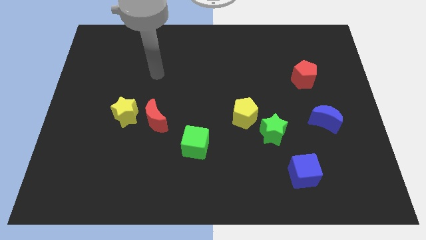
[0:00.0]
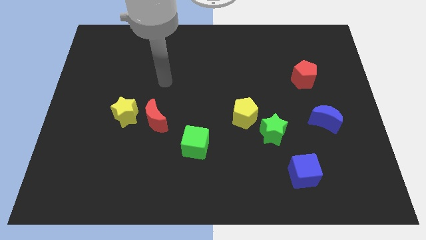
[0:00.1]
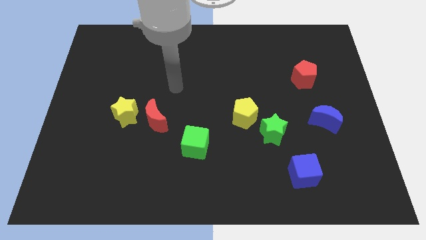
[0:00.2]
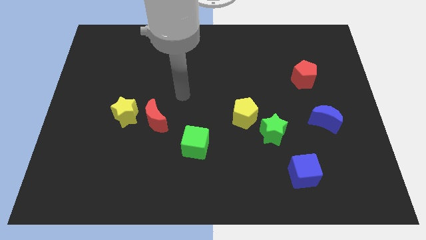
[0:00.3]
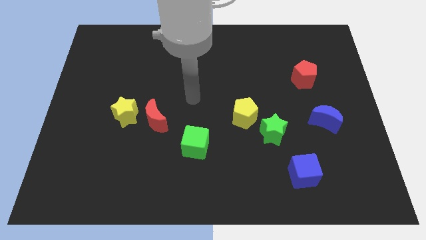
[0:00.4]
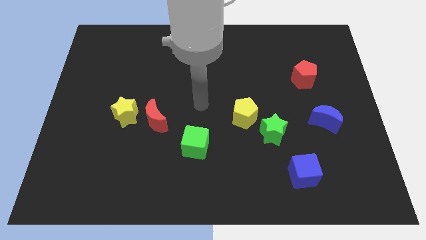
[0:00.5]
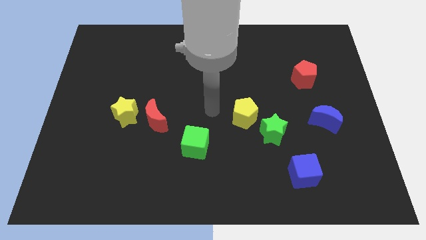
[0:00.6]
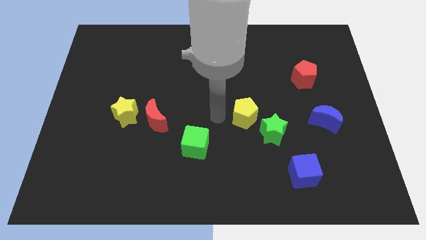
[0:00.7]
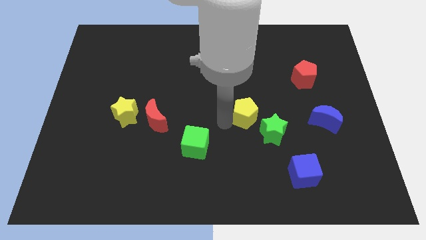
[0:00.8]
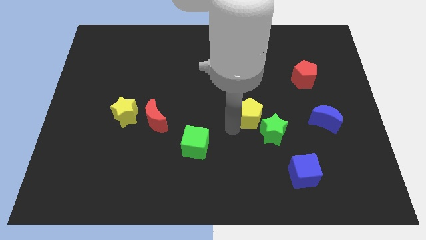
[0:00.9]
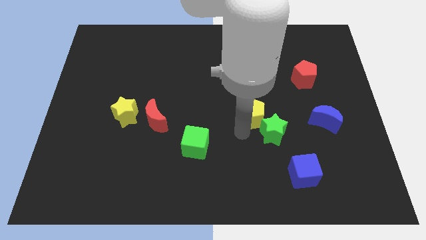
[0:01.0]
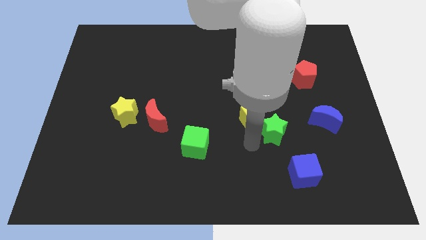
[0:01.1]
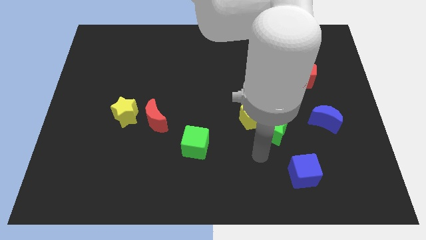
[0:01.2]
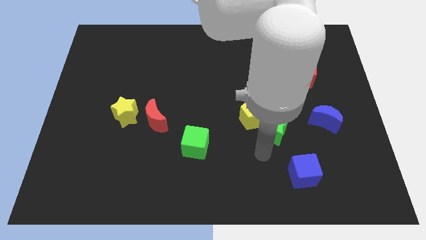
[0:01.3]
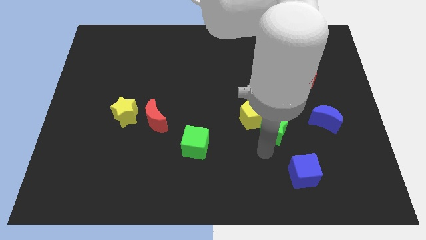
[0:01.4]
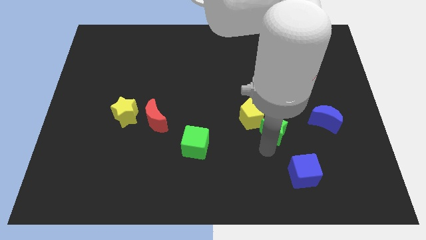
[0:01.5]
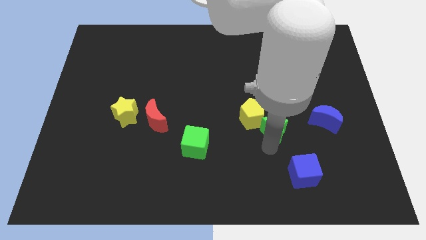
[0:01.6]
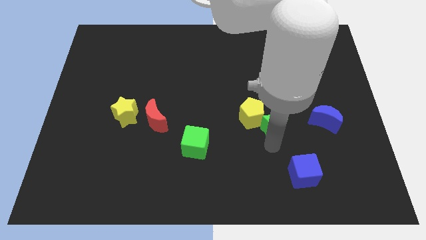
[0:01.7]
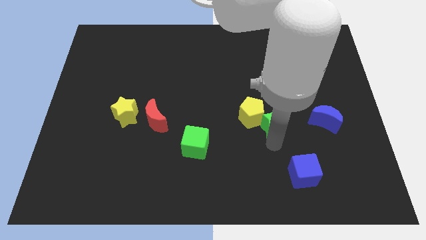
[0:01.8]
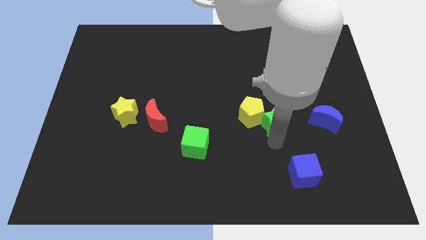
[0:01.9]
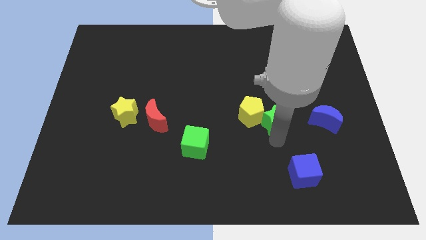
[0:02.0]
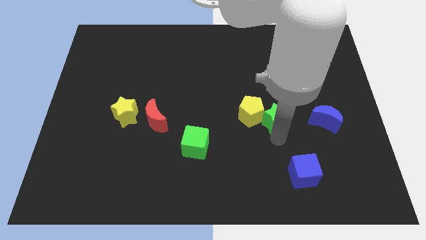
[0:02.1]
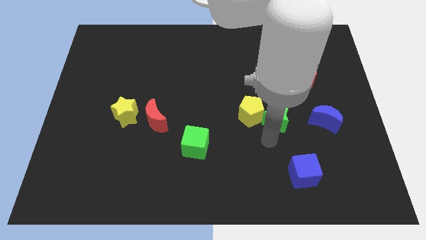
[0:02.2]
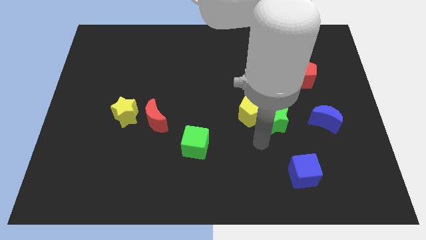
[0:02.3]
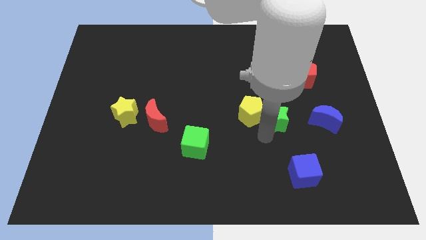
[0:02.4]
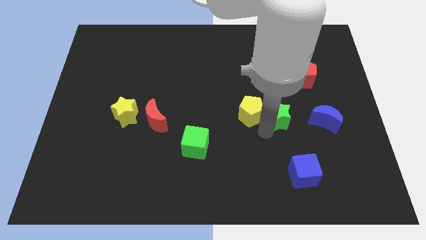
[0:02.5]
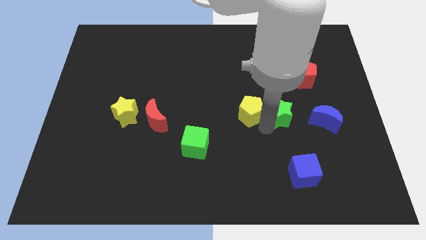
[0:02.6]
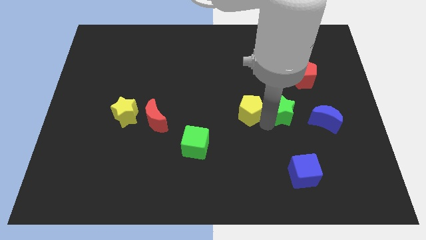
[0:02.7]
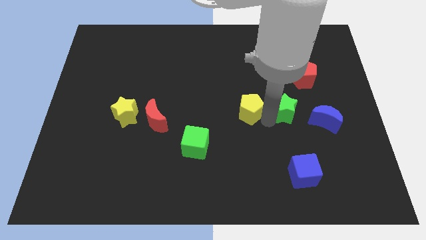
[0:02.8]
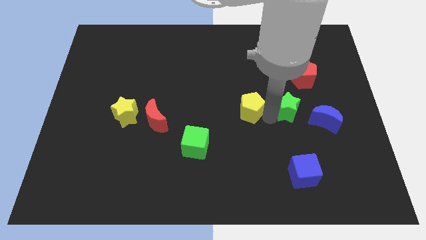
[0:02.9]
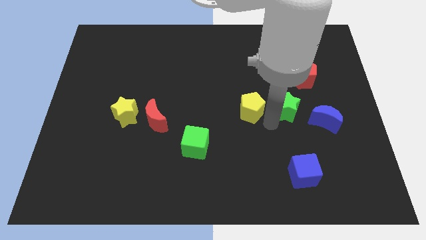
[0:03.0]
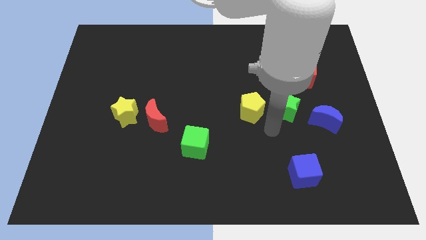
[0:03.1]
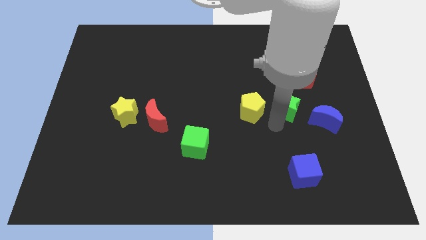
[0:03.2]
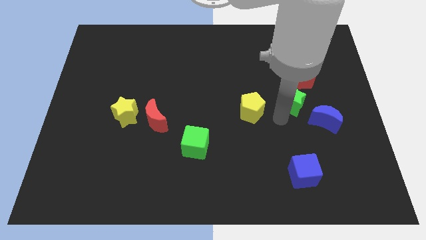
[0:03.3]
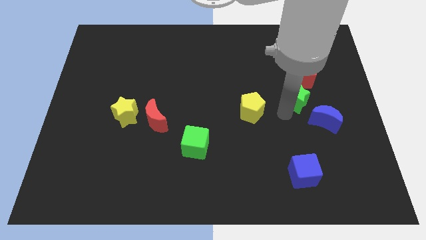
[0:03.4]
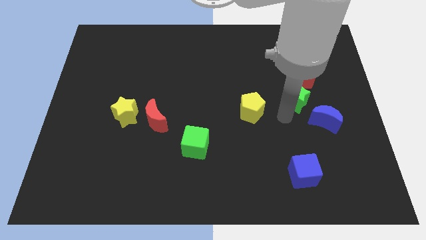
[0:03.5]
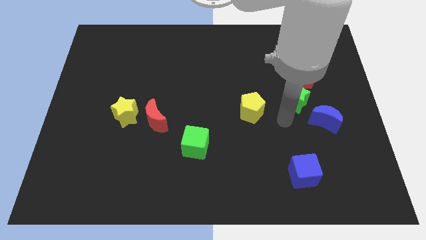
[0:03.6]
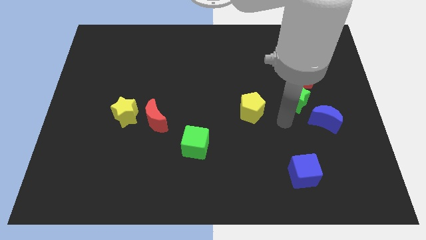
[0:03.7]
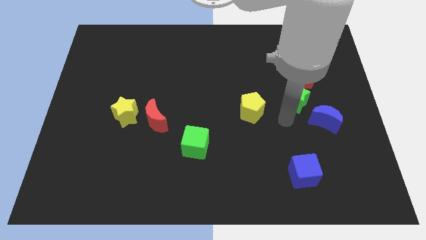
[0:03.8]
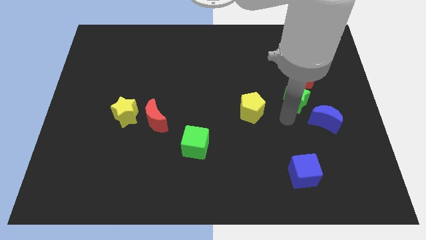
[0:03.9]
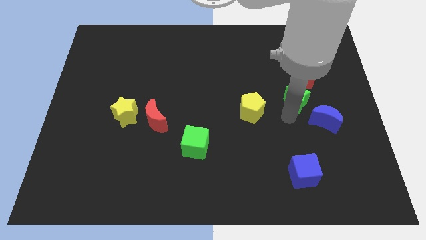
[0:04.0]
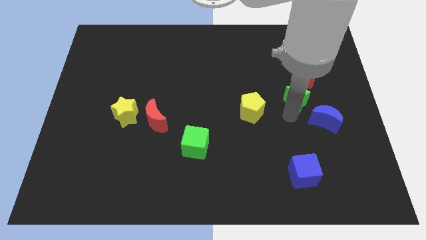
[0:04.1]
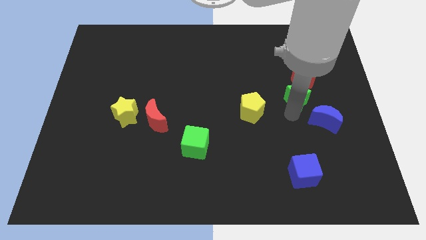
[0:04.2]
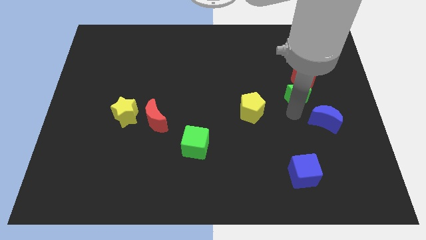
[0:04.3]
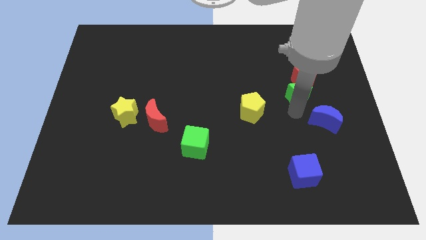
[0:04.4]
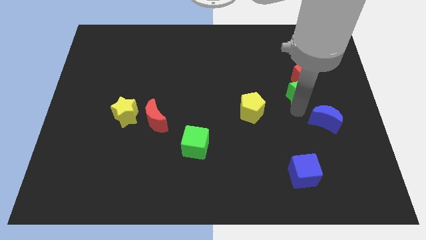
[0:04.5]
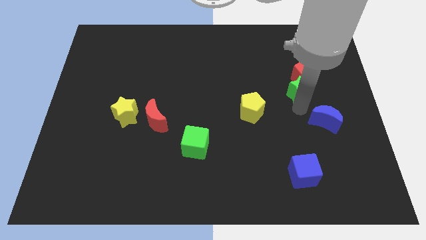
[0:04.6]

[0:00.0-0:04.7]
put the green star towards the red pentagon

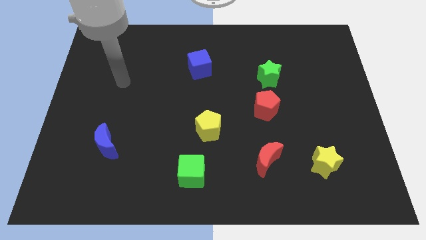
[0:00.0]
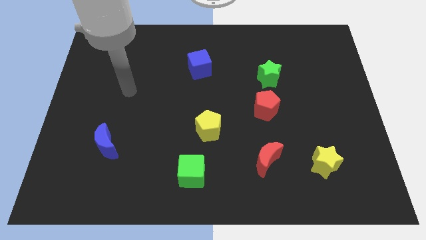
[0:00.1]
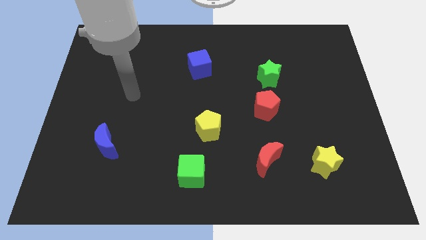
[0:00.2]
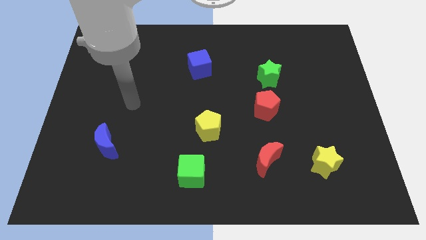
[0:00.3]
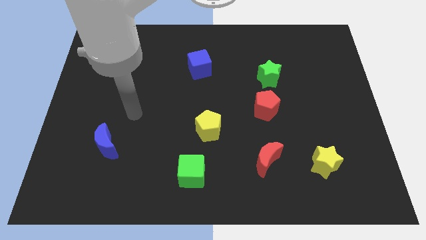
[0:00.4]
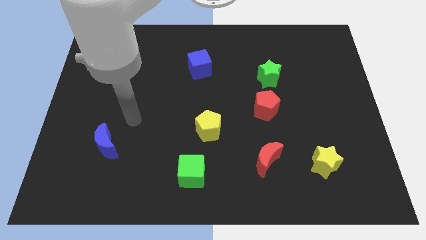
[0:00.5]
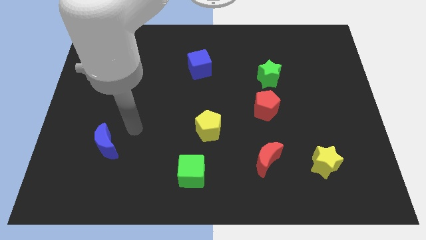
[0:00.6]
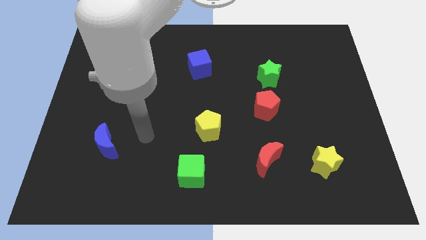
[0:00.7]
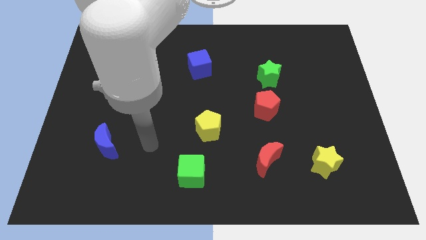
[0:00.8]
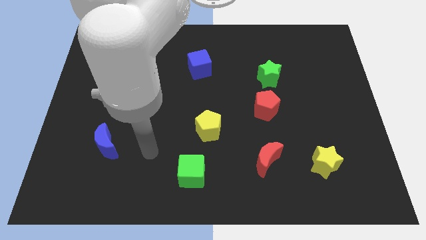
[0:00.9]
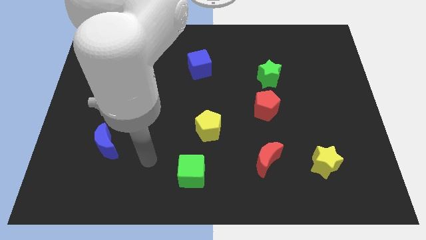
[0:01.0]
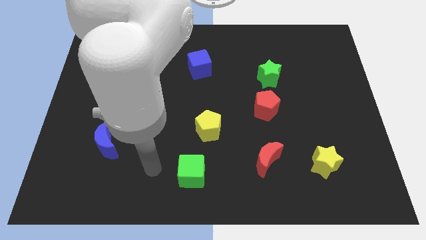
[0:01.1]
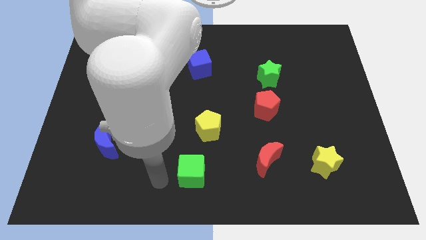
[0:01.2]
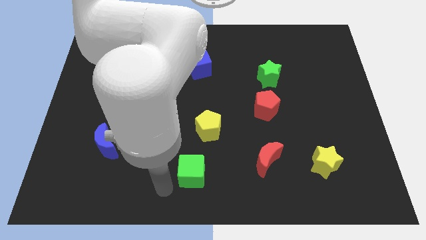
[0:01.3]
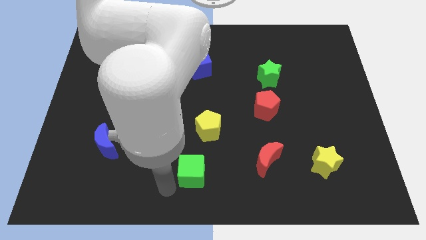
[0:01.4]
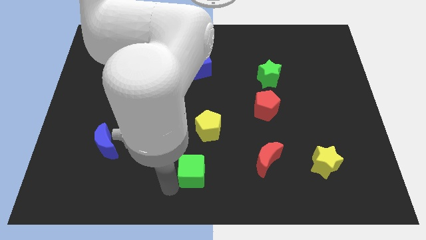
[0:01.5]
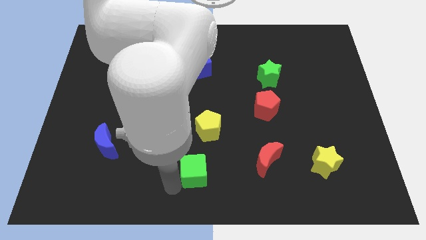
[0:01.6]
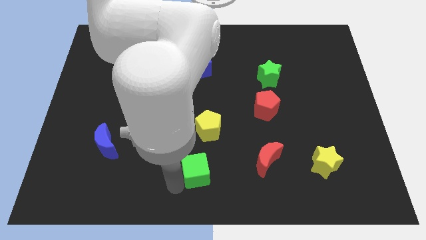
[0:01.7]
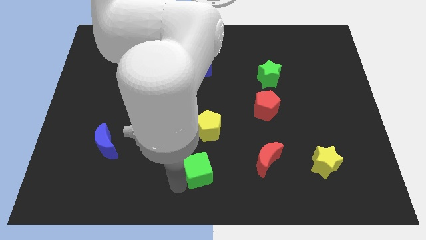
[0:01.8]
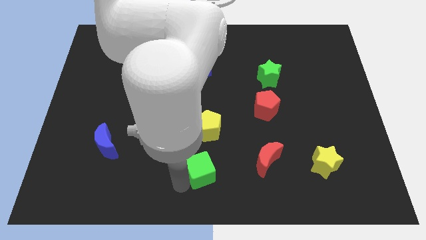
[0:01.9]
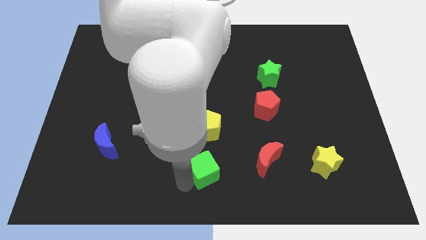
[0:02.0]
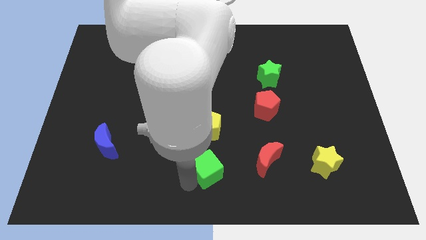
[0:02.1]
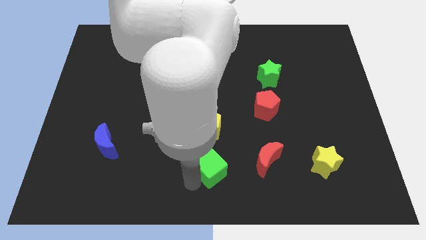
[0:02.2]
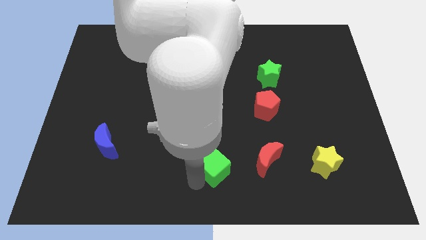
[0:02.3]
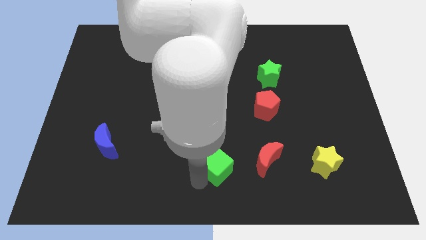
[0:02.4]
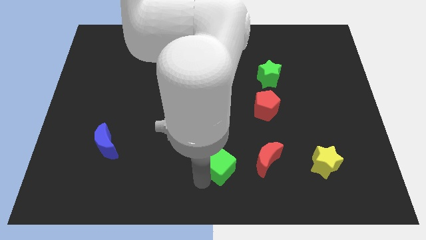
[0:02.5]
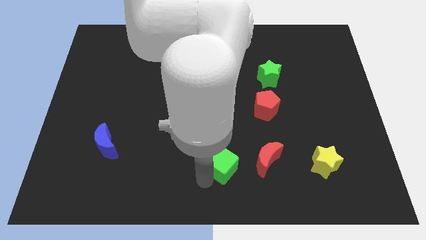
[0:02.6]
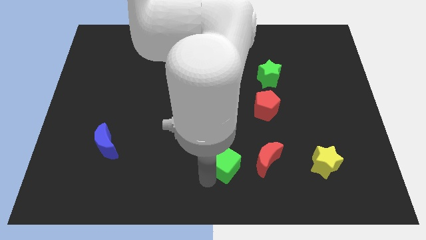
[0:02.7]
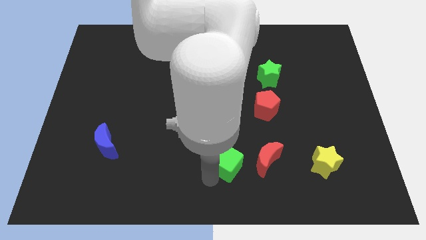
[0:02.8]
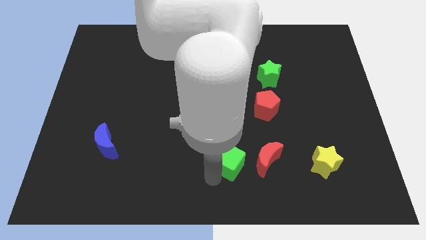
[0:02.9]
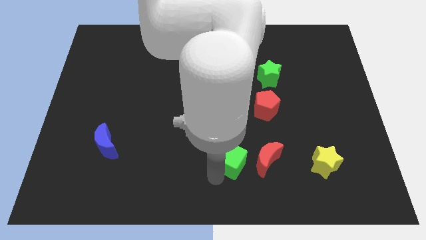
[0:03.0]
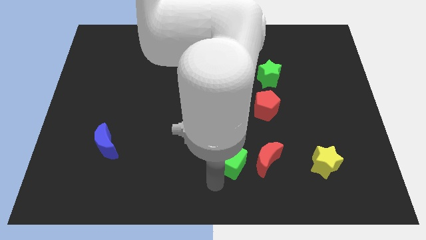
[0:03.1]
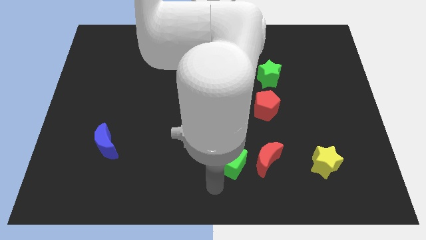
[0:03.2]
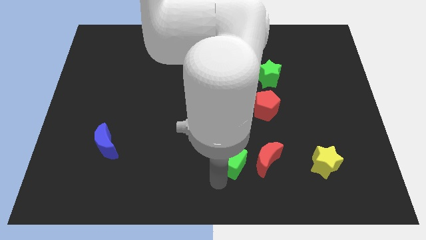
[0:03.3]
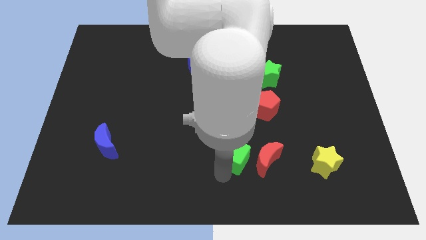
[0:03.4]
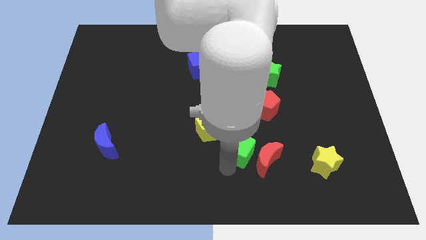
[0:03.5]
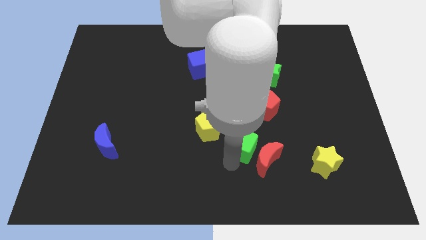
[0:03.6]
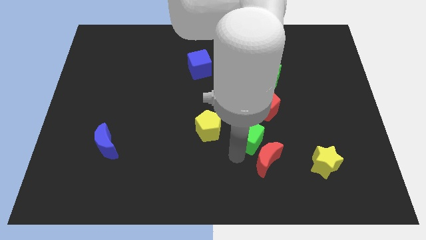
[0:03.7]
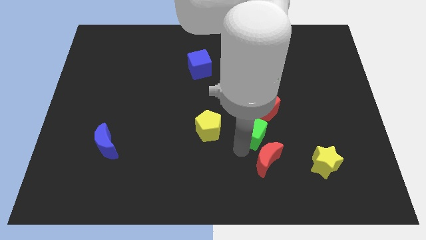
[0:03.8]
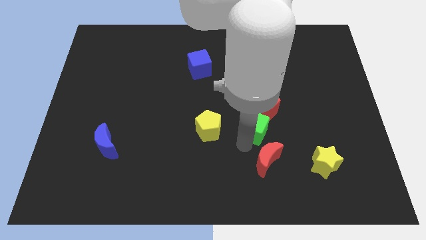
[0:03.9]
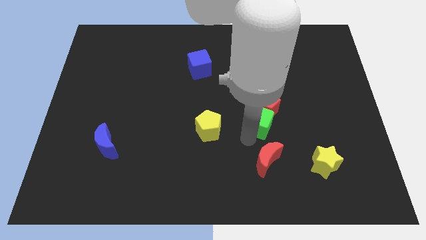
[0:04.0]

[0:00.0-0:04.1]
put the green cube next to the red pentagon
